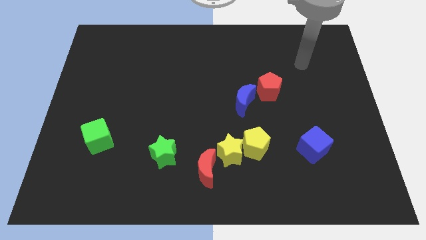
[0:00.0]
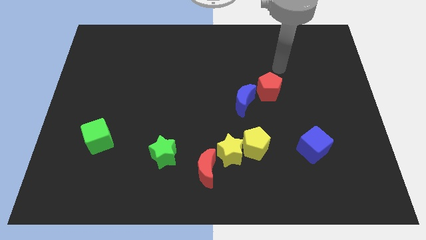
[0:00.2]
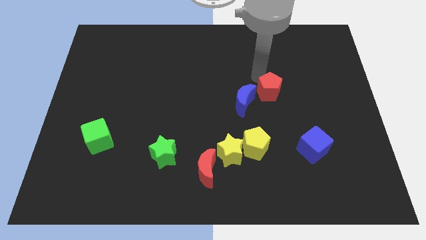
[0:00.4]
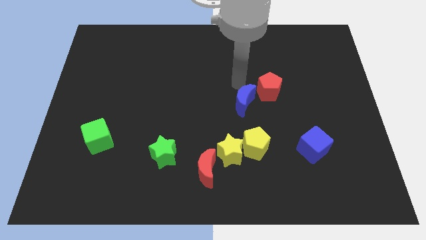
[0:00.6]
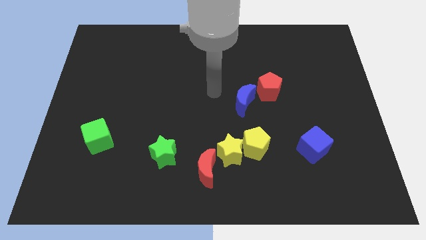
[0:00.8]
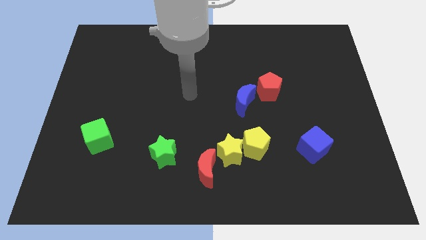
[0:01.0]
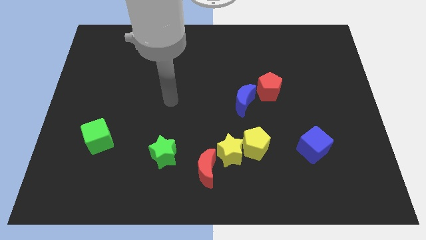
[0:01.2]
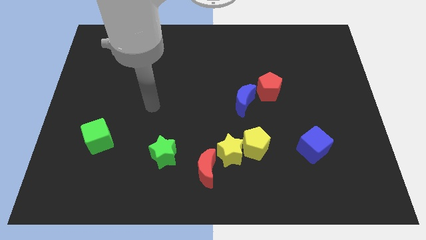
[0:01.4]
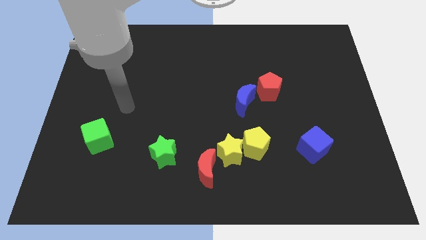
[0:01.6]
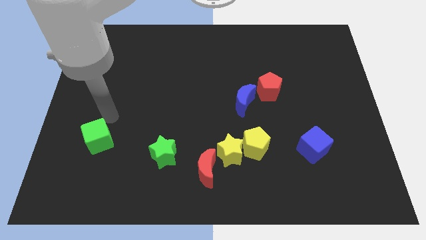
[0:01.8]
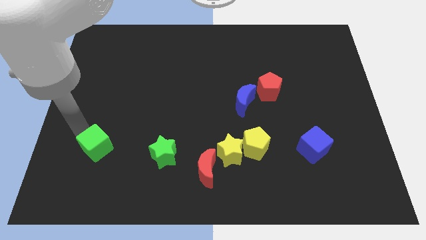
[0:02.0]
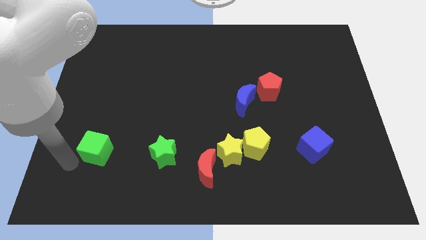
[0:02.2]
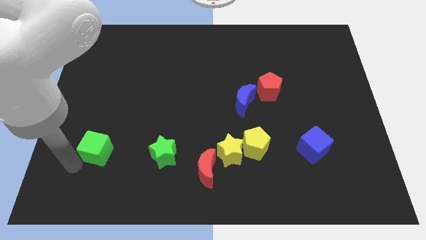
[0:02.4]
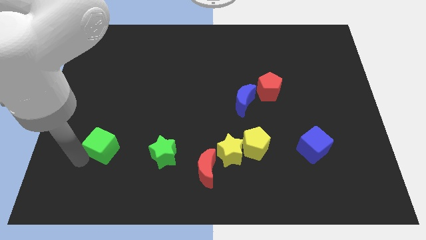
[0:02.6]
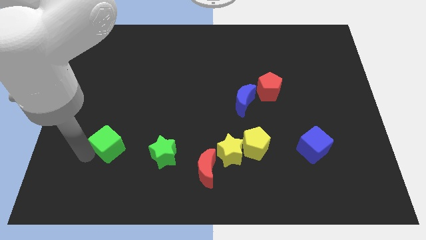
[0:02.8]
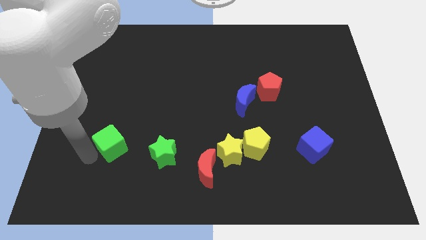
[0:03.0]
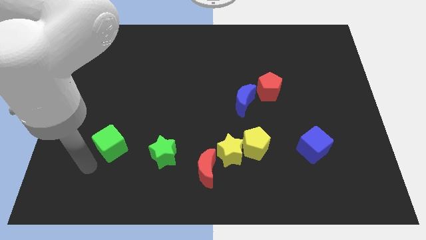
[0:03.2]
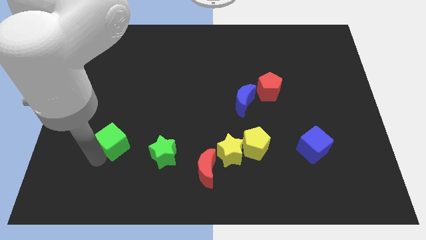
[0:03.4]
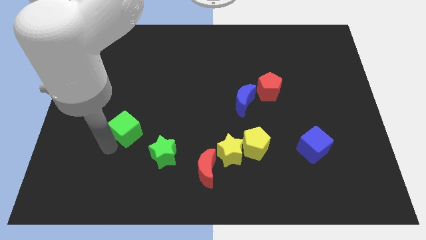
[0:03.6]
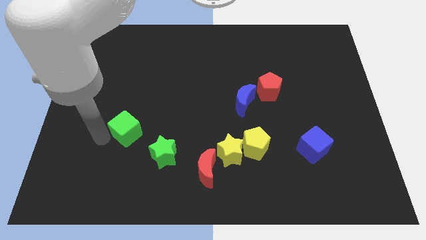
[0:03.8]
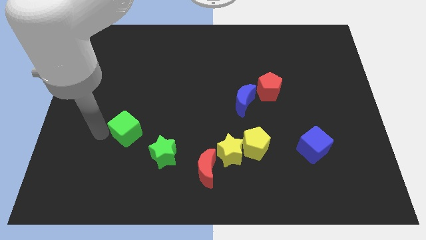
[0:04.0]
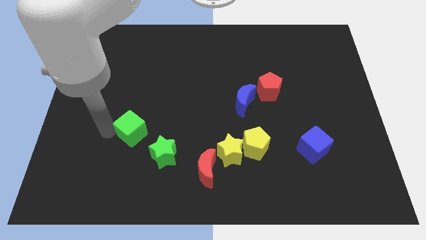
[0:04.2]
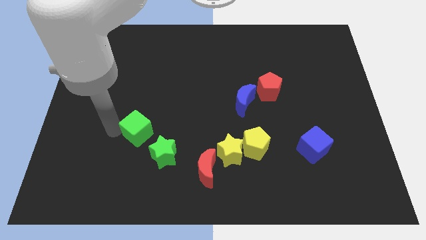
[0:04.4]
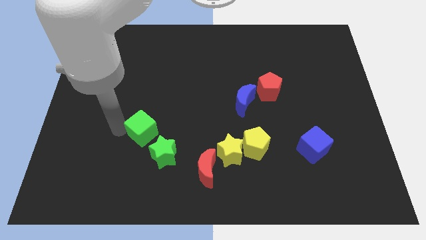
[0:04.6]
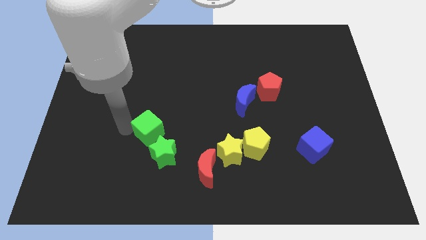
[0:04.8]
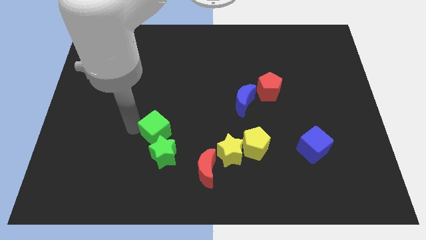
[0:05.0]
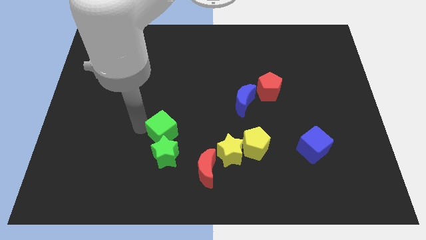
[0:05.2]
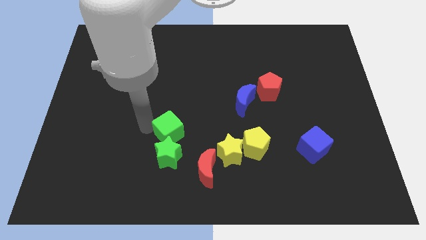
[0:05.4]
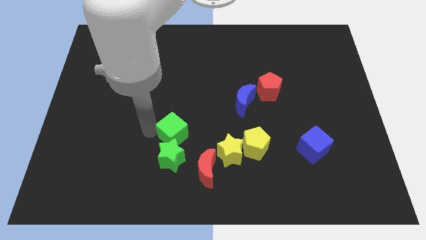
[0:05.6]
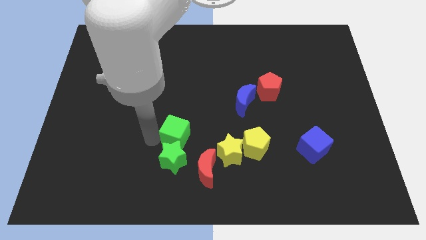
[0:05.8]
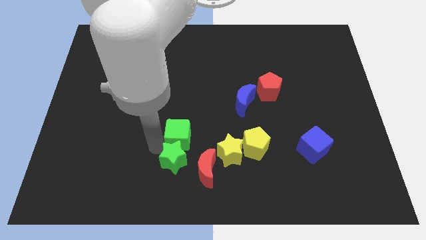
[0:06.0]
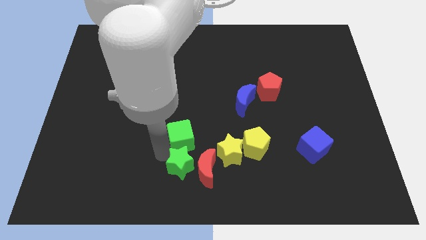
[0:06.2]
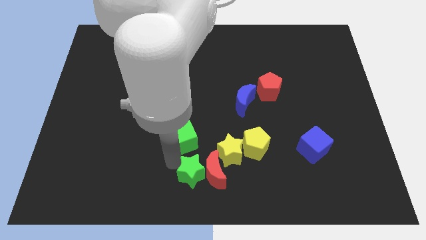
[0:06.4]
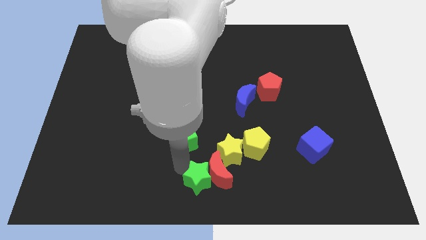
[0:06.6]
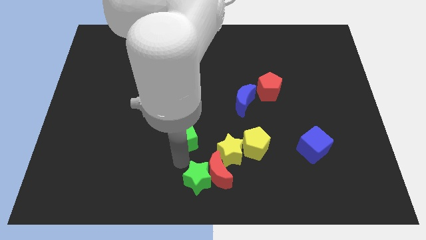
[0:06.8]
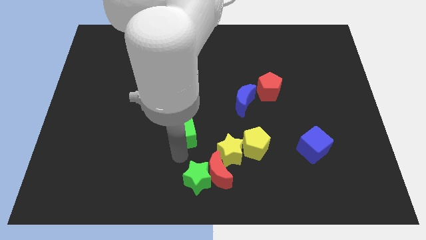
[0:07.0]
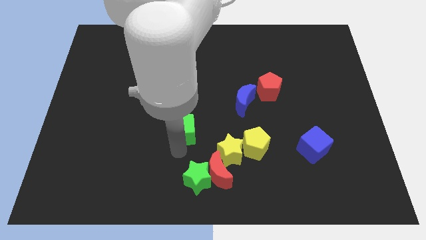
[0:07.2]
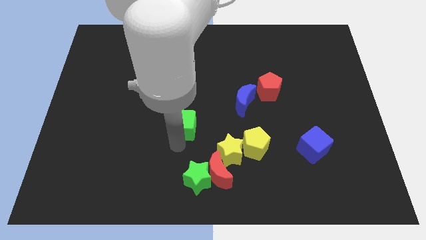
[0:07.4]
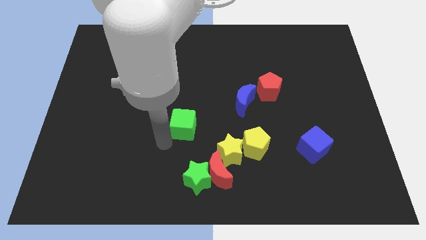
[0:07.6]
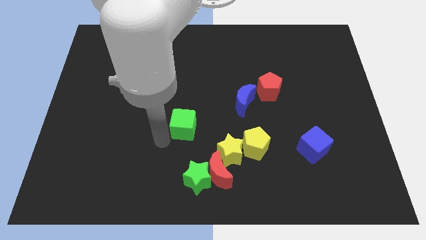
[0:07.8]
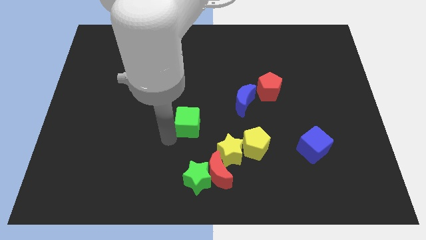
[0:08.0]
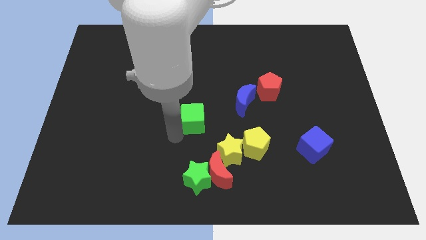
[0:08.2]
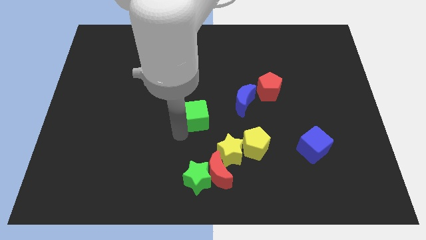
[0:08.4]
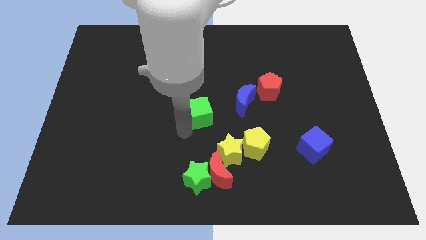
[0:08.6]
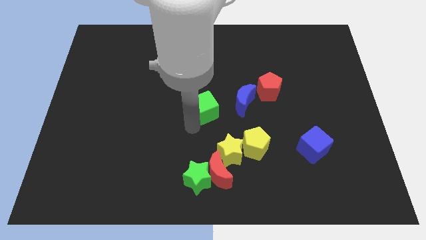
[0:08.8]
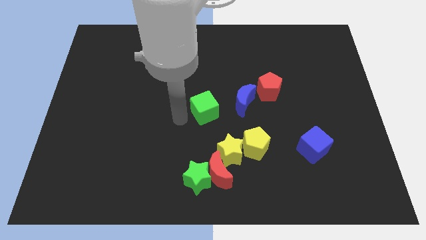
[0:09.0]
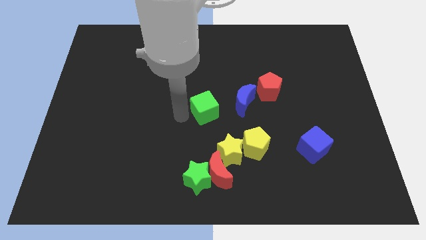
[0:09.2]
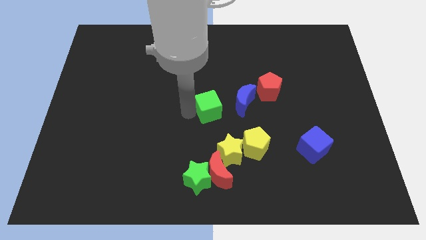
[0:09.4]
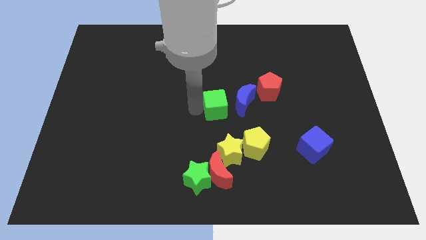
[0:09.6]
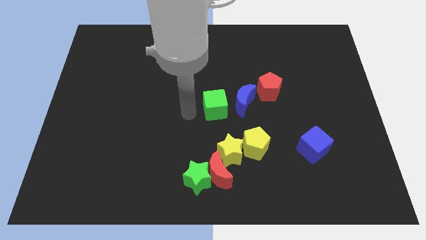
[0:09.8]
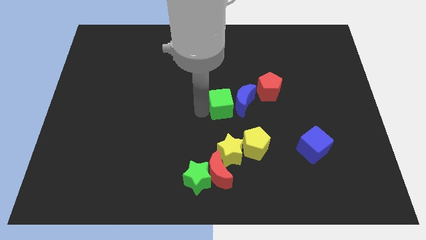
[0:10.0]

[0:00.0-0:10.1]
push the green cube towards the blue moon

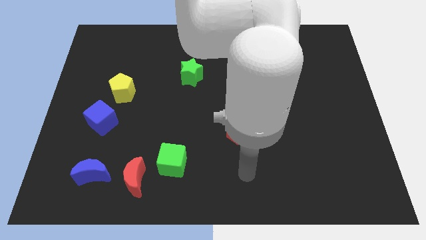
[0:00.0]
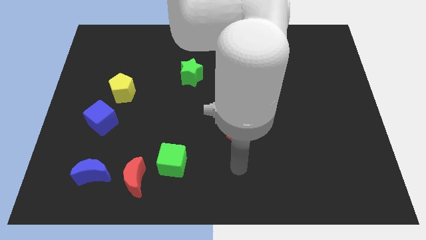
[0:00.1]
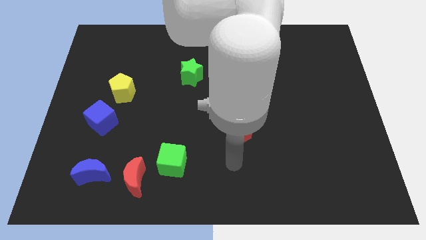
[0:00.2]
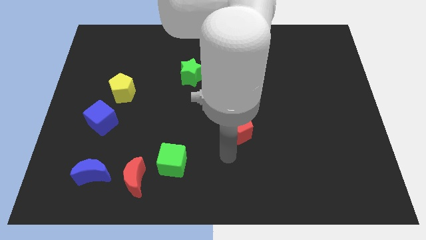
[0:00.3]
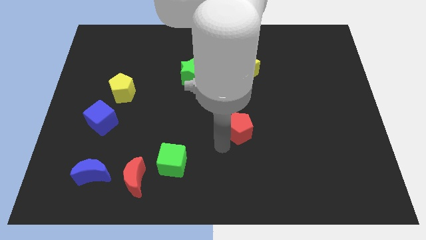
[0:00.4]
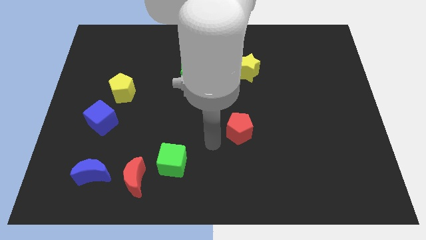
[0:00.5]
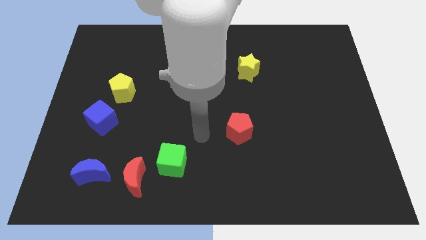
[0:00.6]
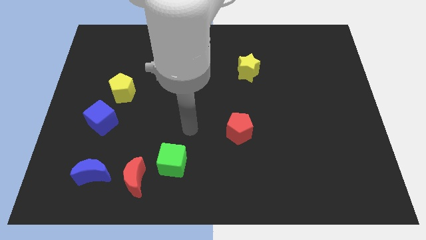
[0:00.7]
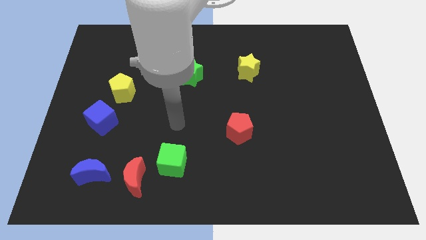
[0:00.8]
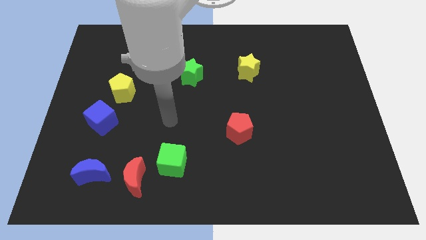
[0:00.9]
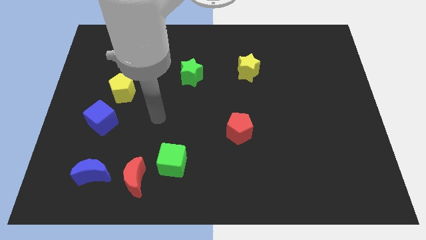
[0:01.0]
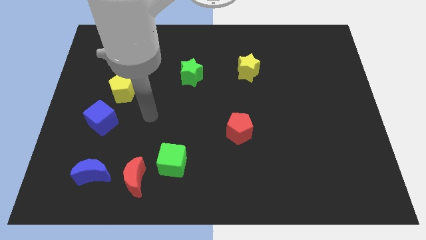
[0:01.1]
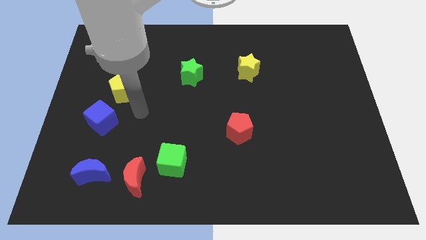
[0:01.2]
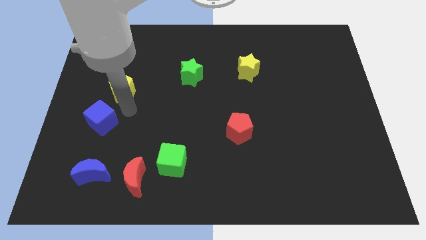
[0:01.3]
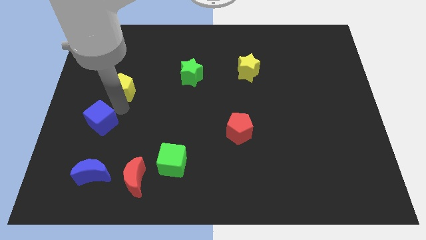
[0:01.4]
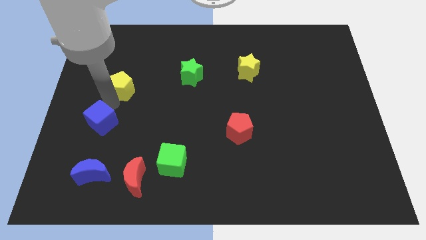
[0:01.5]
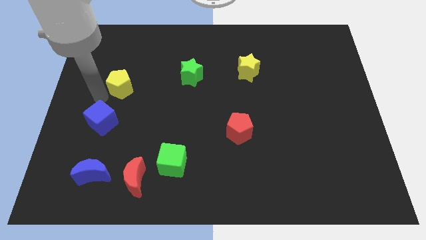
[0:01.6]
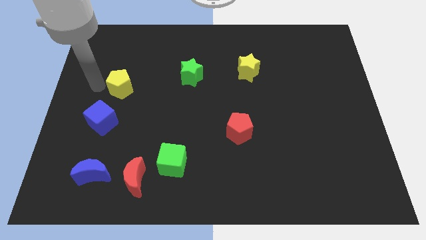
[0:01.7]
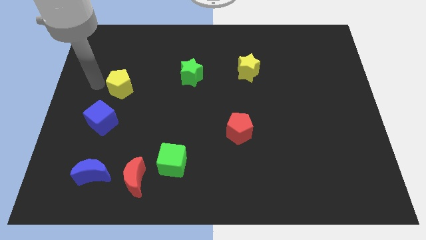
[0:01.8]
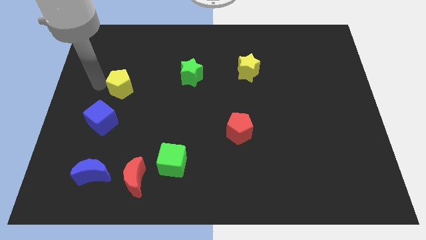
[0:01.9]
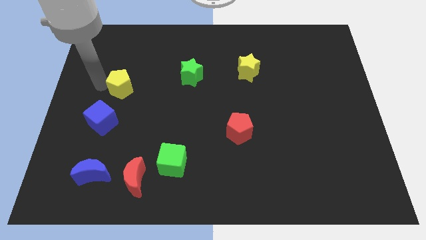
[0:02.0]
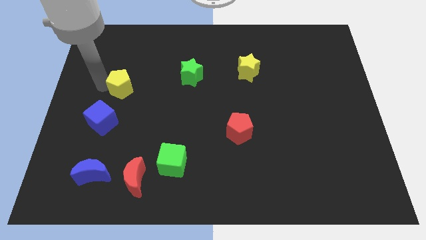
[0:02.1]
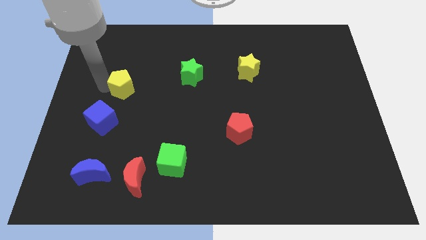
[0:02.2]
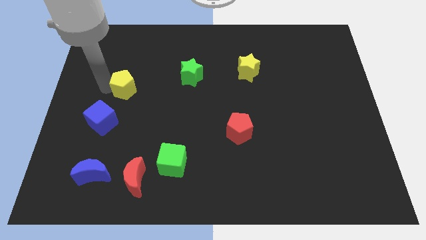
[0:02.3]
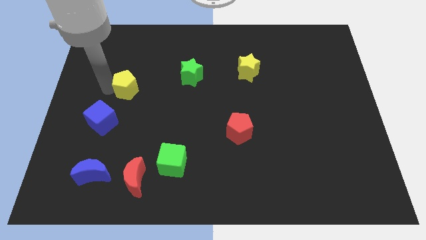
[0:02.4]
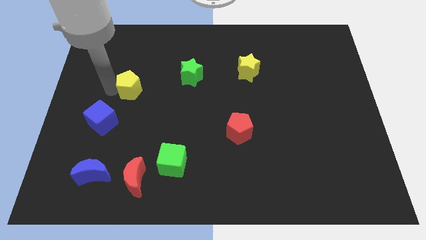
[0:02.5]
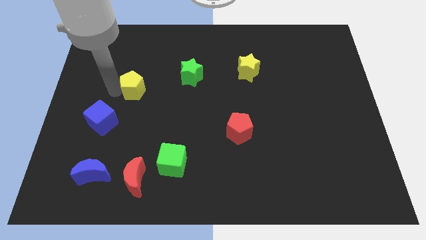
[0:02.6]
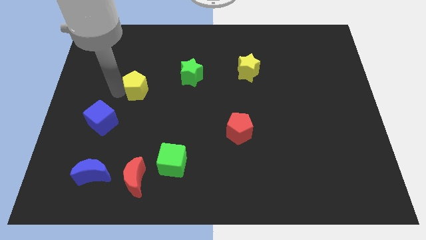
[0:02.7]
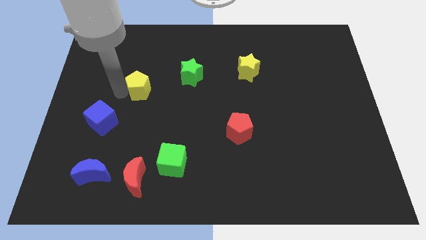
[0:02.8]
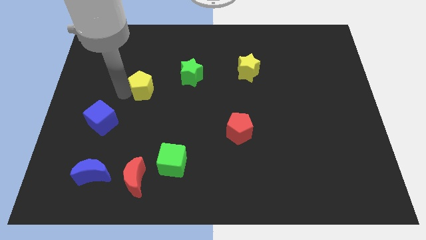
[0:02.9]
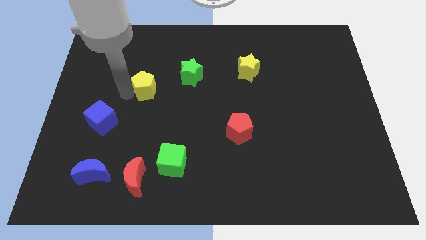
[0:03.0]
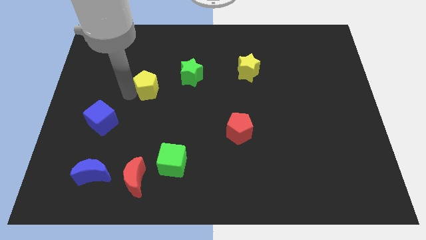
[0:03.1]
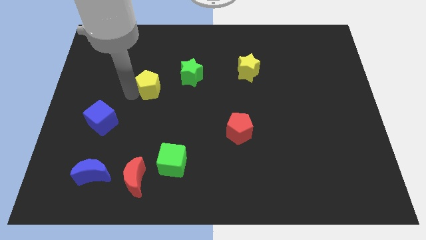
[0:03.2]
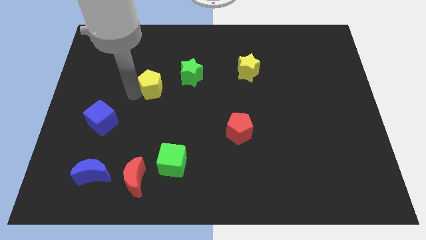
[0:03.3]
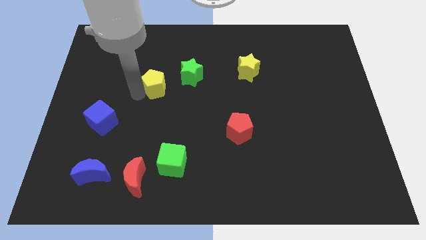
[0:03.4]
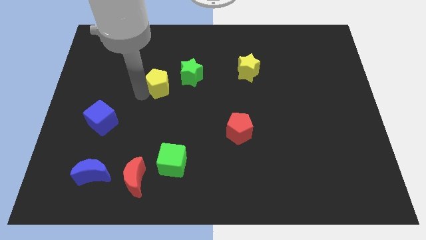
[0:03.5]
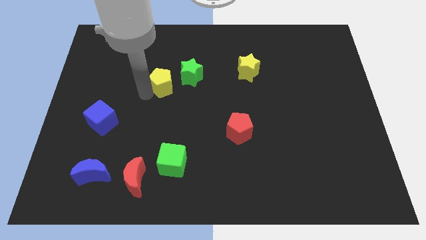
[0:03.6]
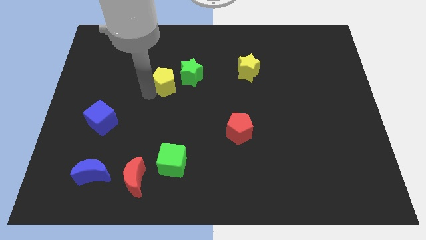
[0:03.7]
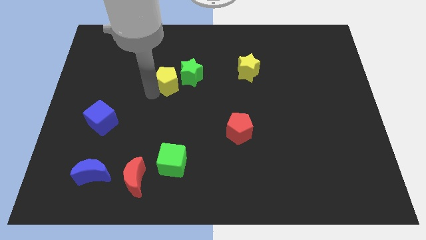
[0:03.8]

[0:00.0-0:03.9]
move the yellow pentagon next to the green star
